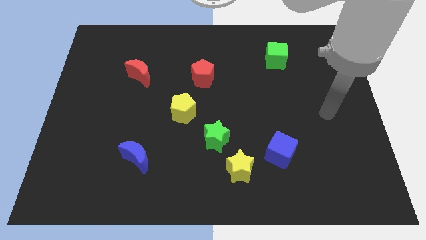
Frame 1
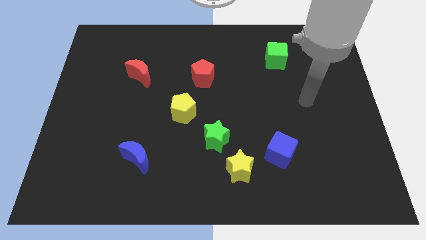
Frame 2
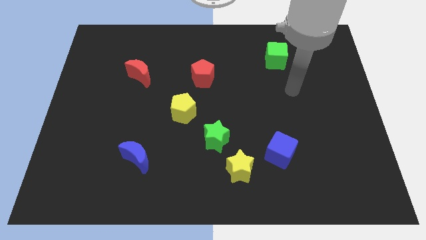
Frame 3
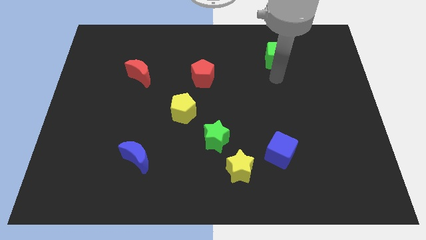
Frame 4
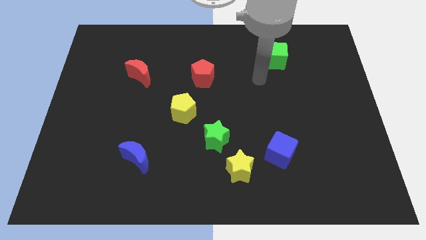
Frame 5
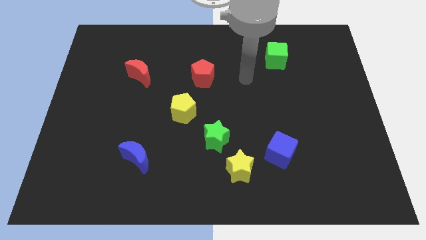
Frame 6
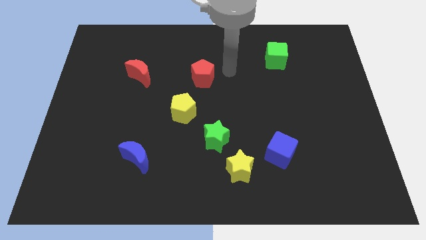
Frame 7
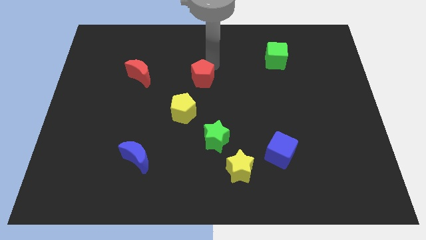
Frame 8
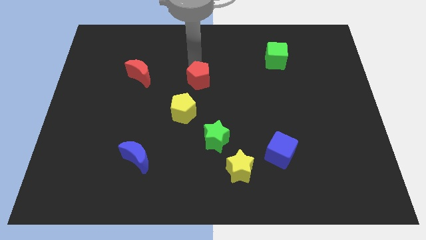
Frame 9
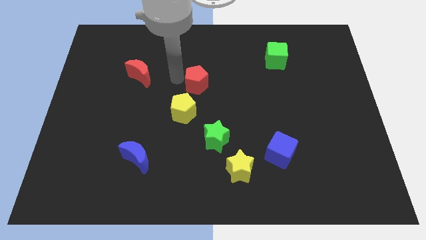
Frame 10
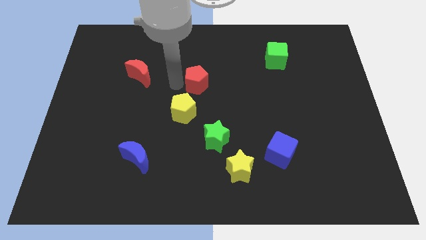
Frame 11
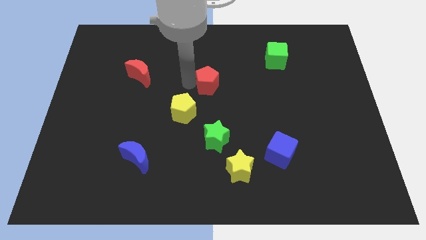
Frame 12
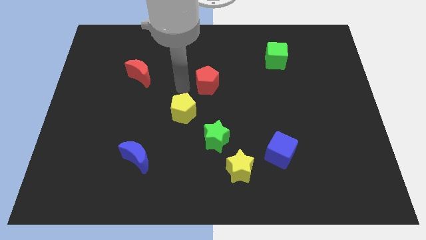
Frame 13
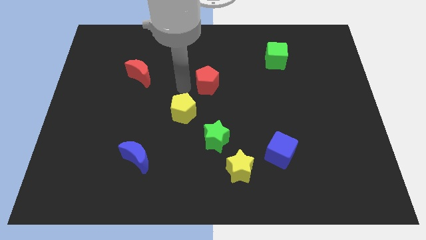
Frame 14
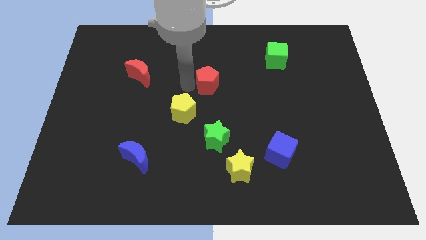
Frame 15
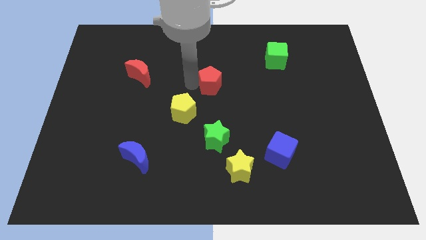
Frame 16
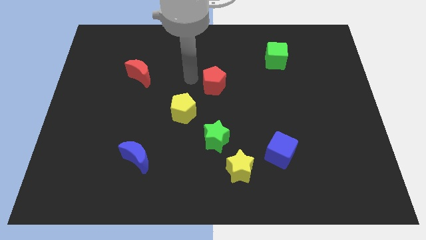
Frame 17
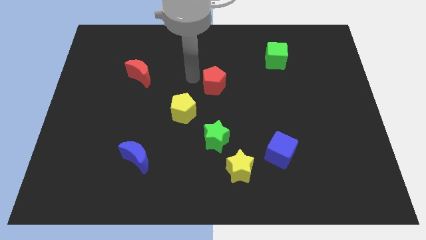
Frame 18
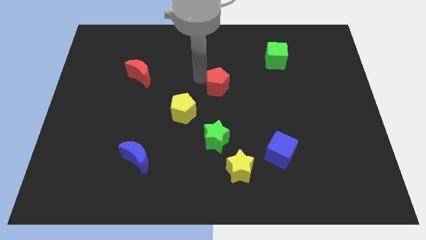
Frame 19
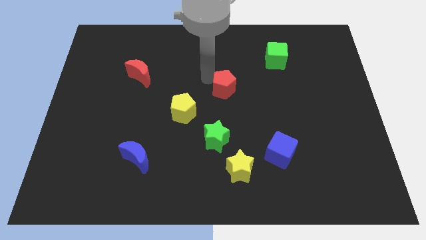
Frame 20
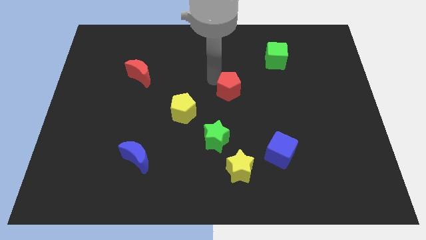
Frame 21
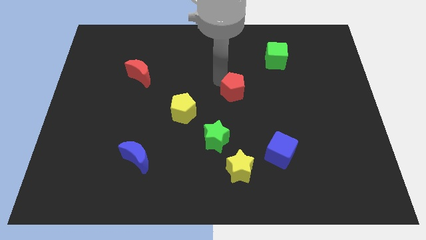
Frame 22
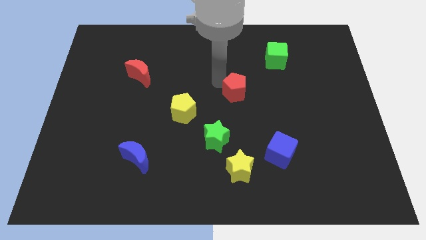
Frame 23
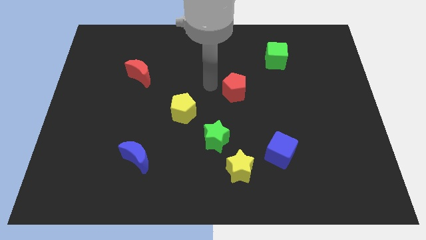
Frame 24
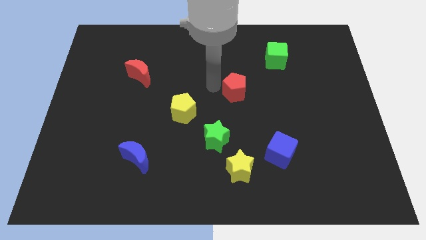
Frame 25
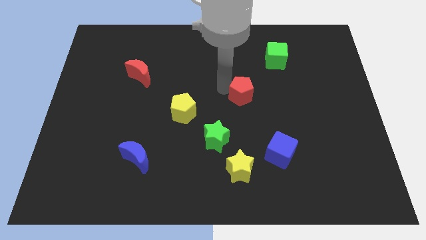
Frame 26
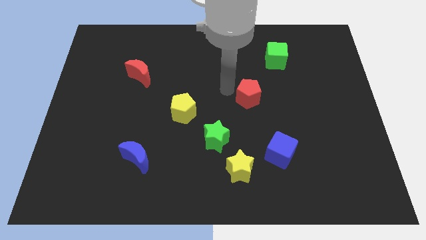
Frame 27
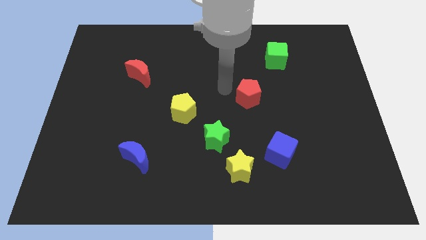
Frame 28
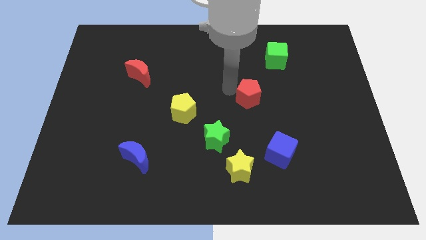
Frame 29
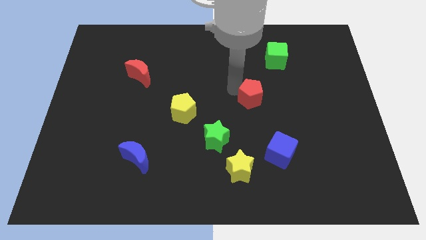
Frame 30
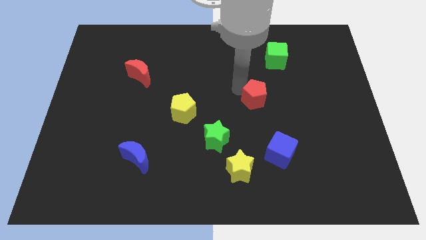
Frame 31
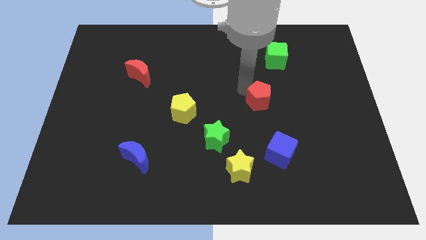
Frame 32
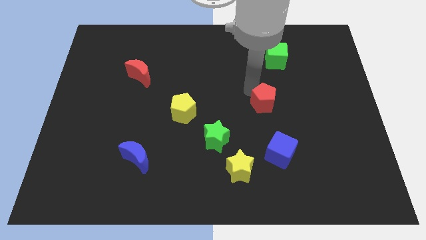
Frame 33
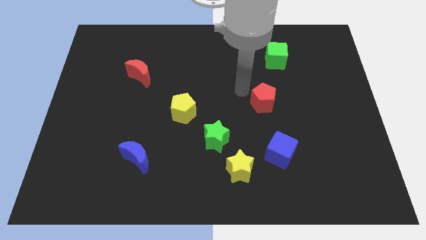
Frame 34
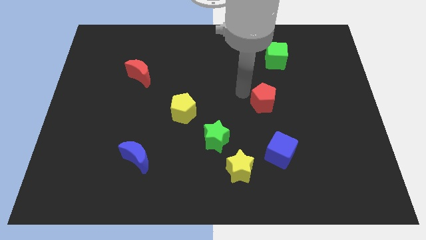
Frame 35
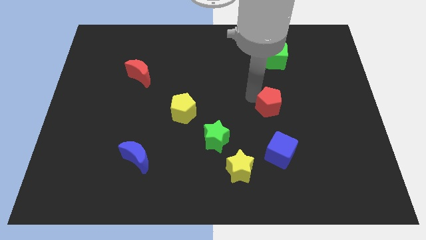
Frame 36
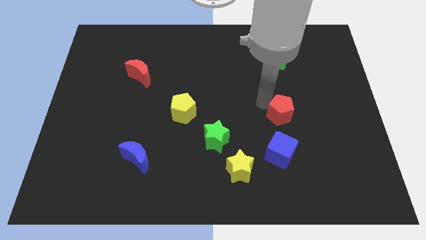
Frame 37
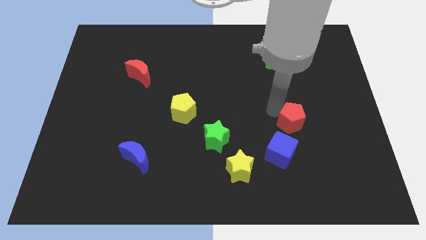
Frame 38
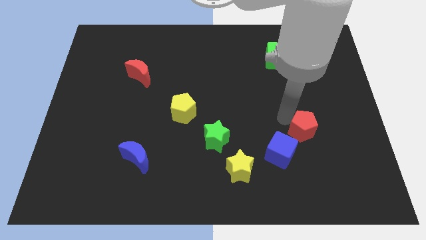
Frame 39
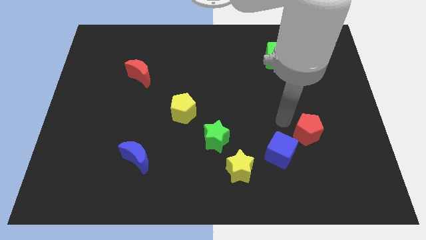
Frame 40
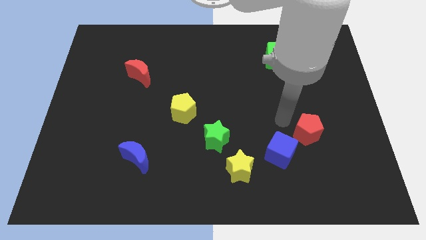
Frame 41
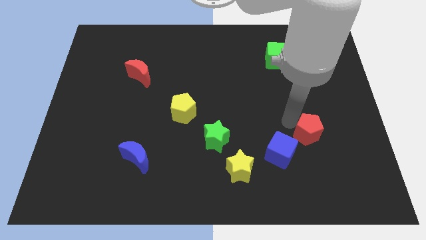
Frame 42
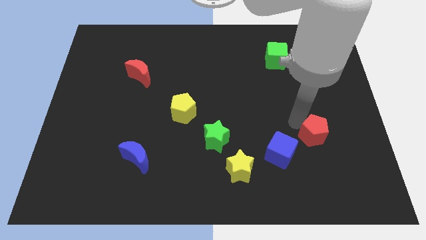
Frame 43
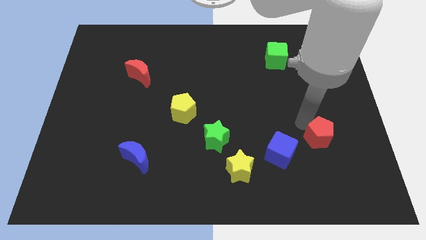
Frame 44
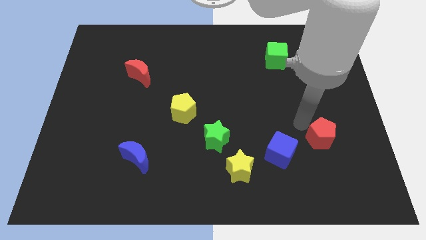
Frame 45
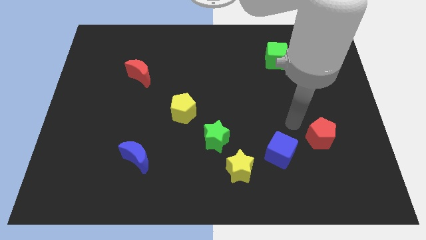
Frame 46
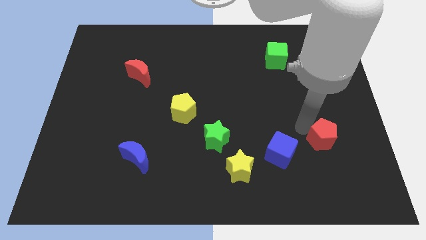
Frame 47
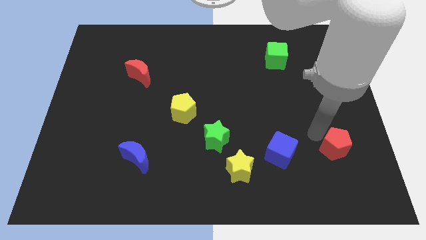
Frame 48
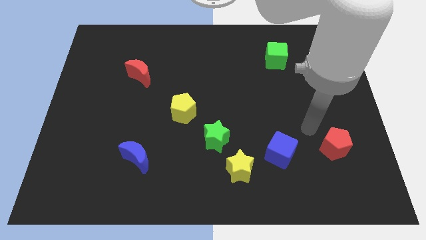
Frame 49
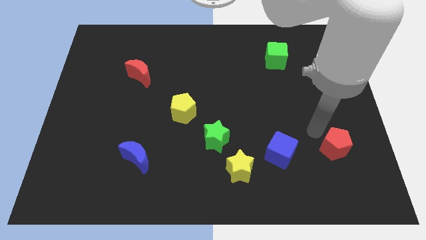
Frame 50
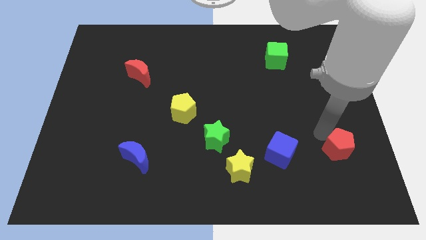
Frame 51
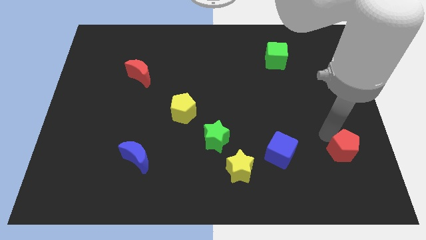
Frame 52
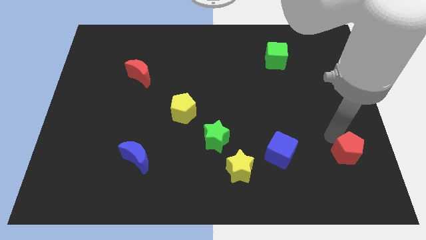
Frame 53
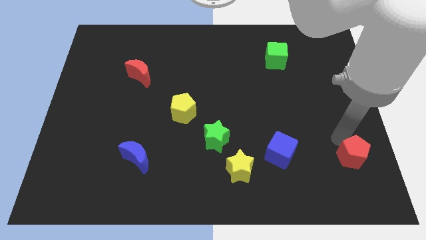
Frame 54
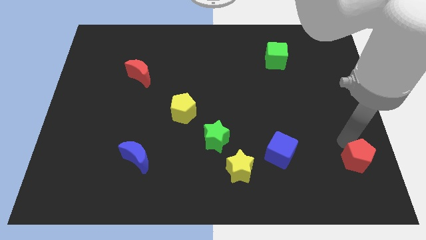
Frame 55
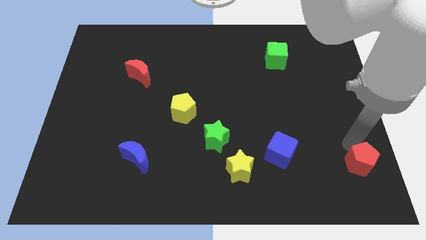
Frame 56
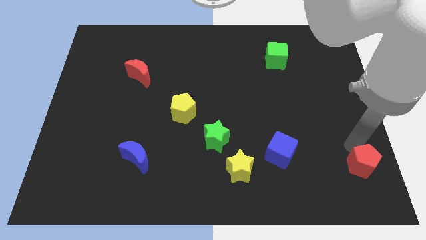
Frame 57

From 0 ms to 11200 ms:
push the red pentagon to the lower right corner

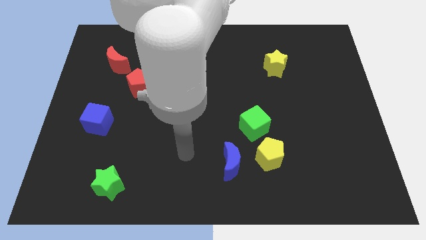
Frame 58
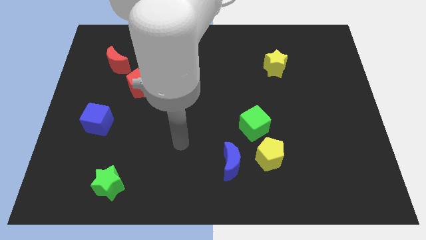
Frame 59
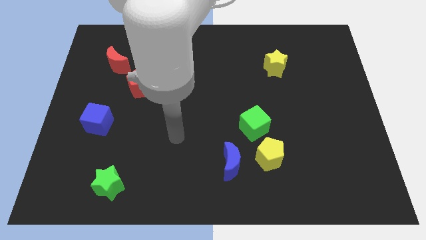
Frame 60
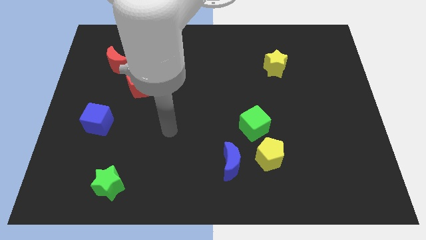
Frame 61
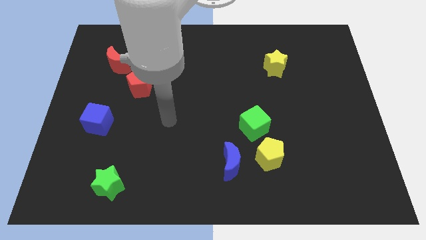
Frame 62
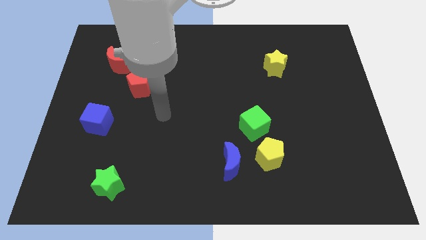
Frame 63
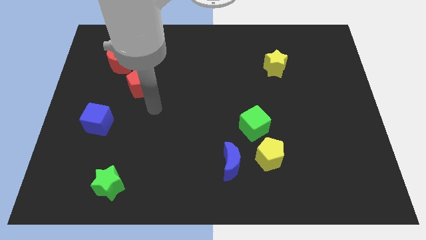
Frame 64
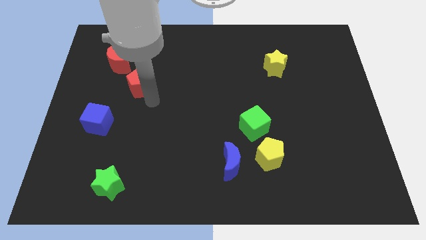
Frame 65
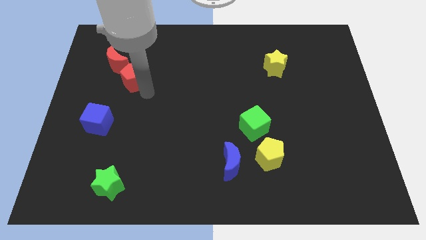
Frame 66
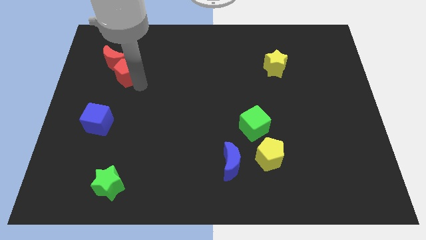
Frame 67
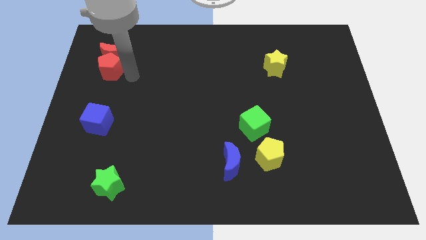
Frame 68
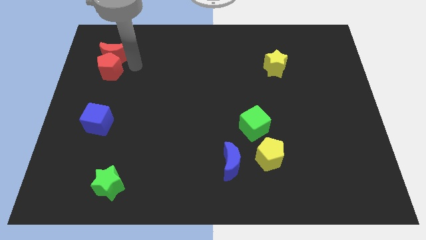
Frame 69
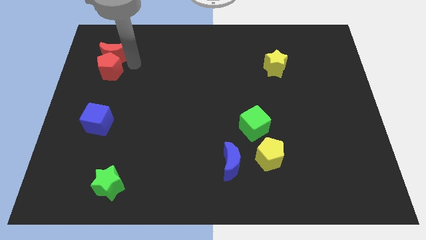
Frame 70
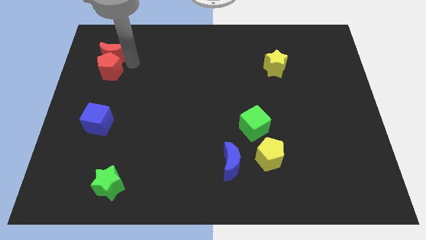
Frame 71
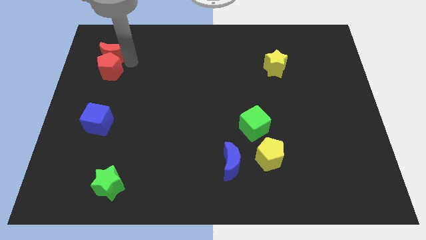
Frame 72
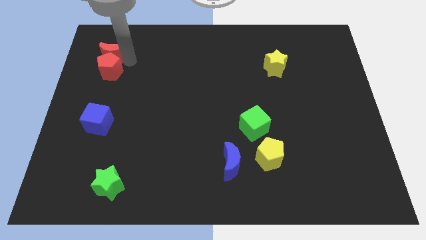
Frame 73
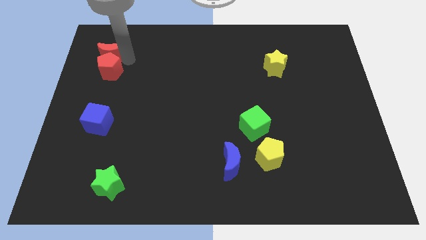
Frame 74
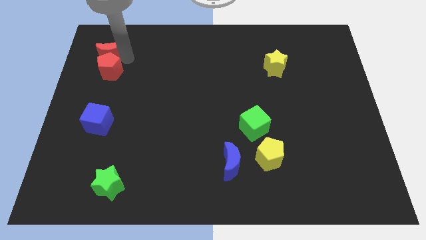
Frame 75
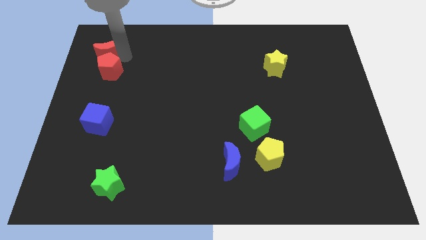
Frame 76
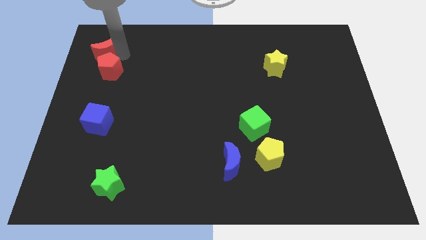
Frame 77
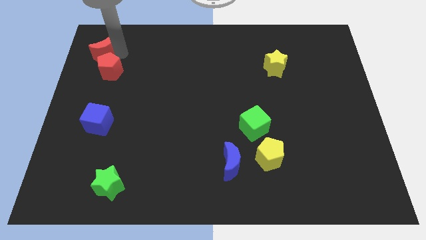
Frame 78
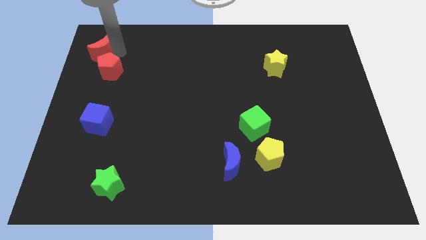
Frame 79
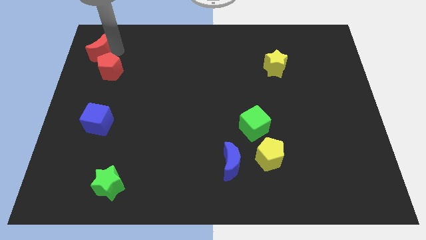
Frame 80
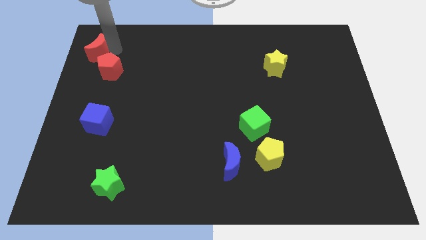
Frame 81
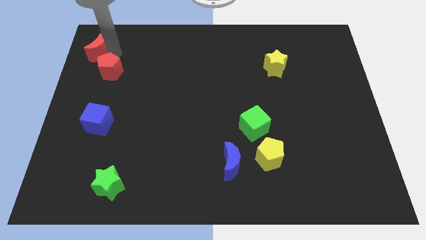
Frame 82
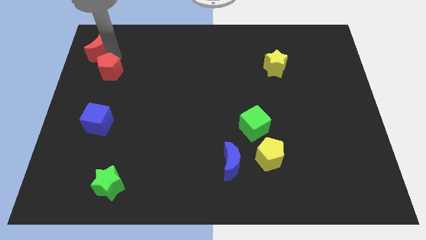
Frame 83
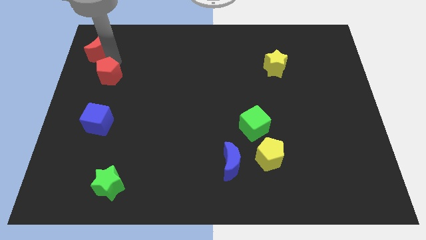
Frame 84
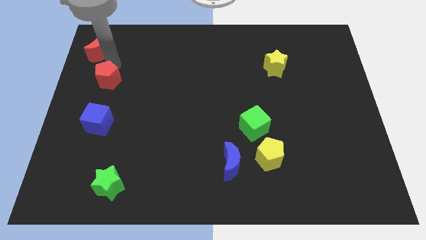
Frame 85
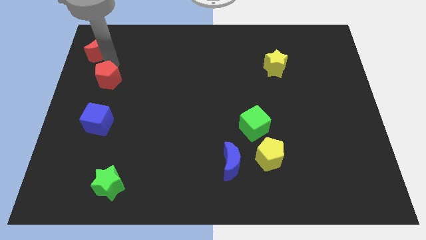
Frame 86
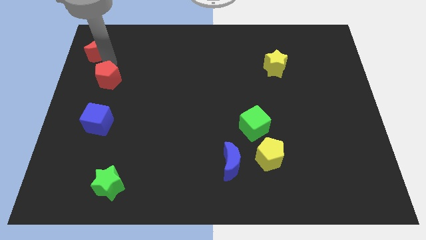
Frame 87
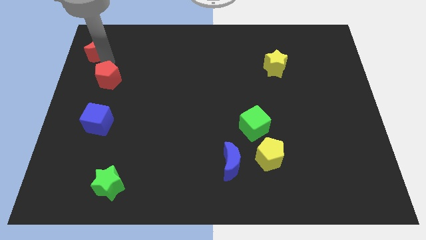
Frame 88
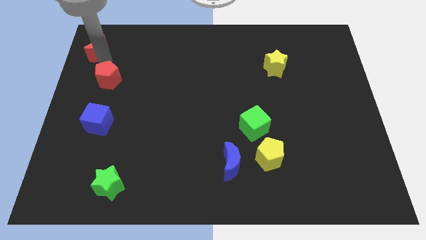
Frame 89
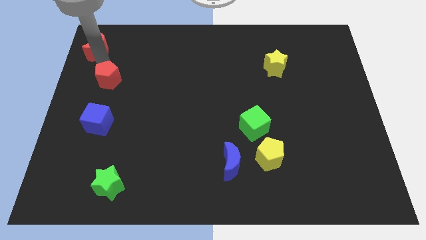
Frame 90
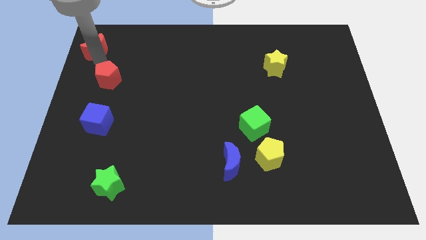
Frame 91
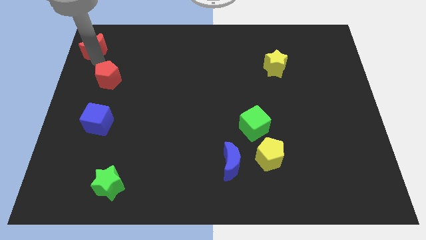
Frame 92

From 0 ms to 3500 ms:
put the red moon to the upper left corner
